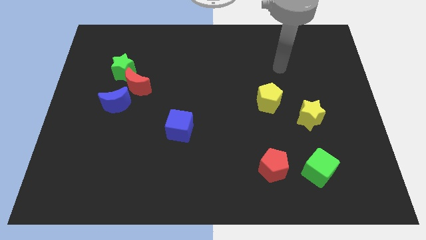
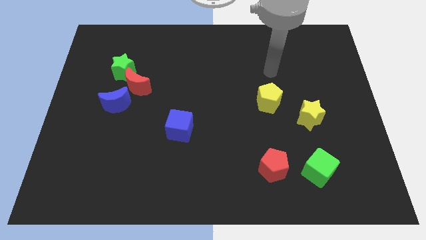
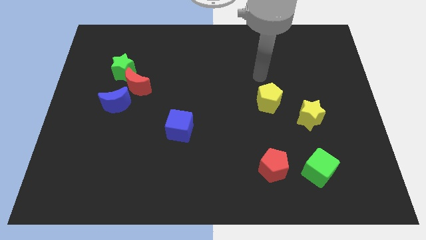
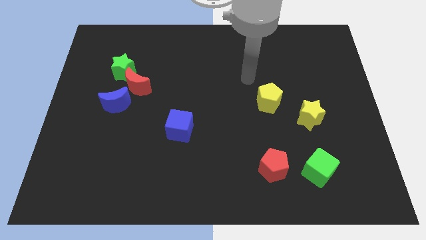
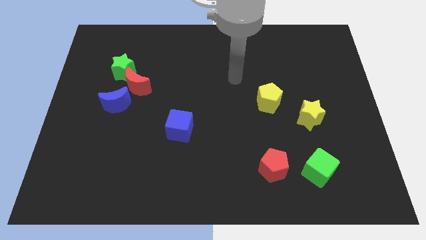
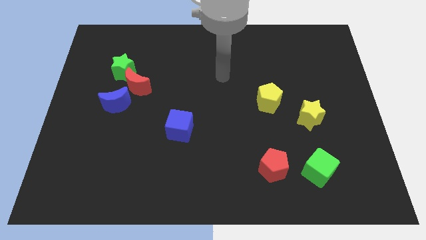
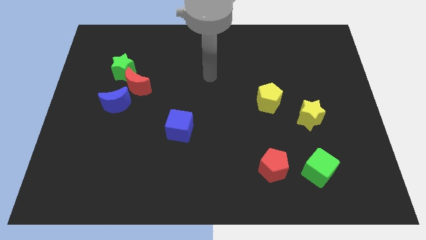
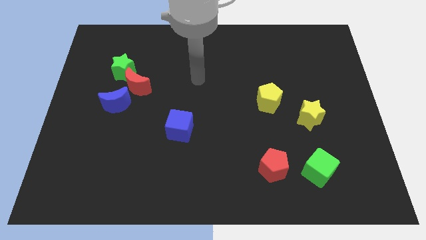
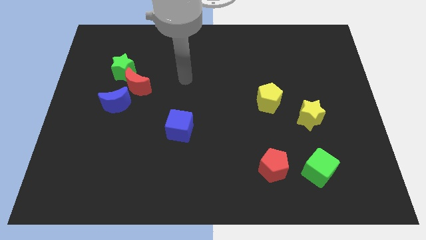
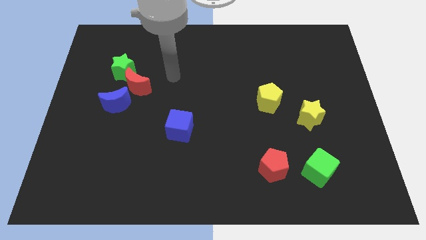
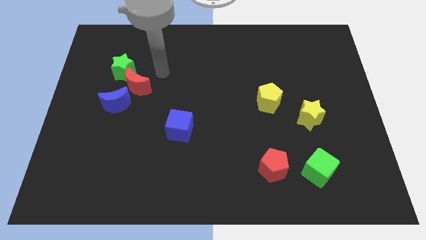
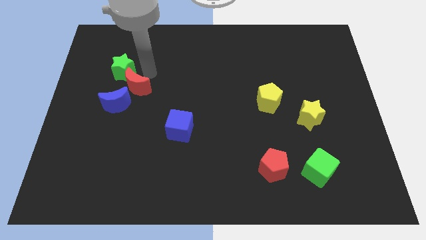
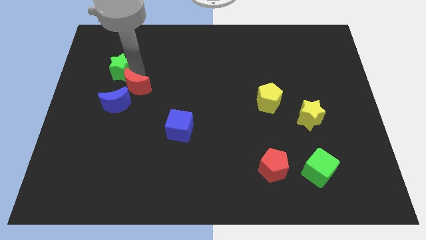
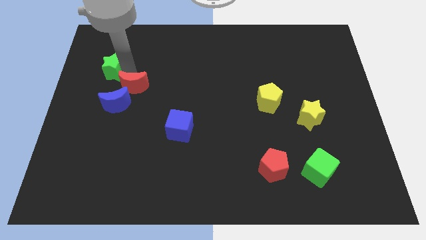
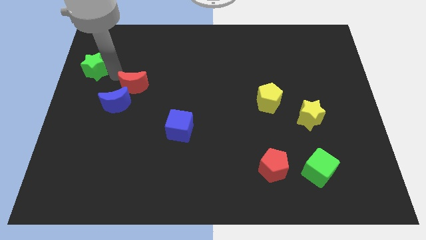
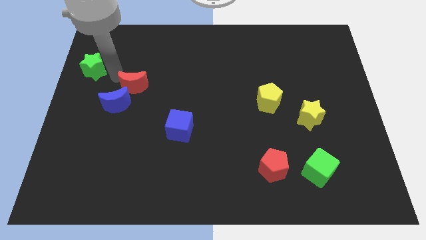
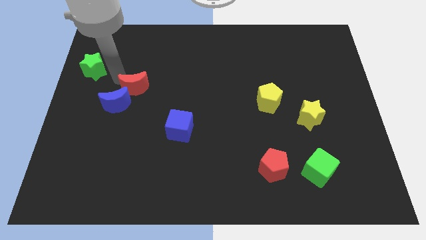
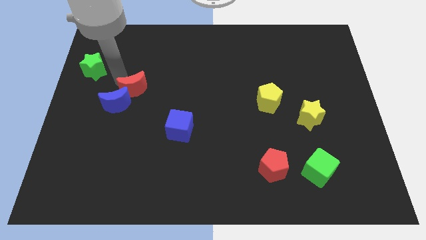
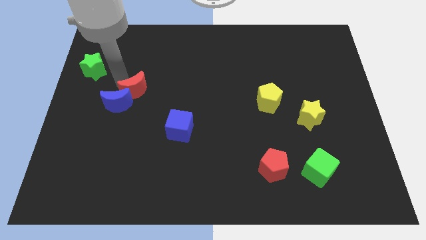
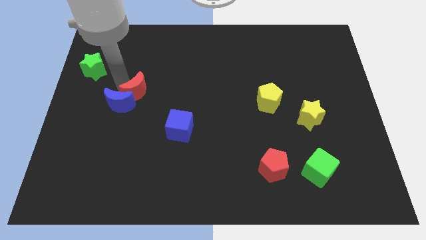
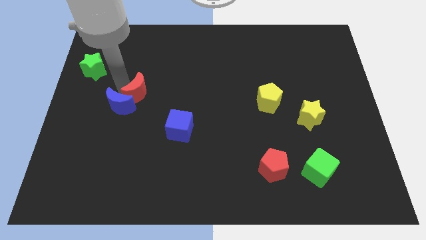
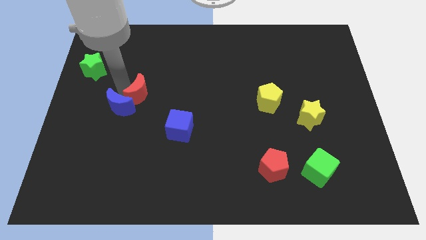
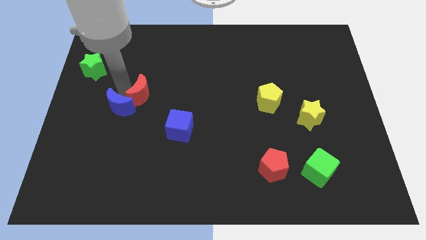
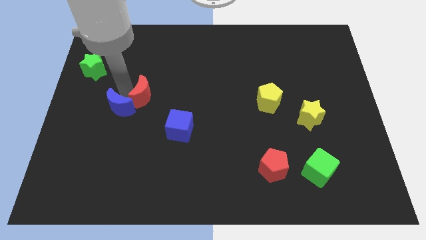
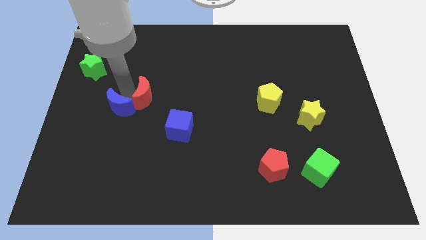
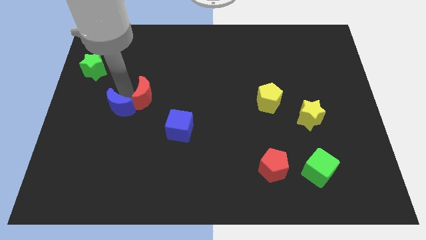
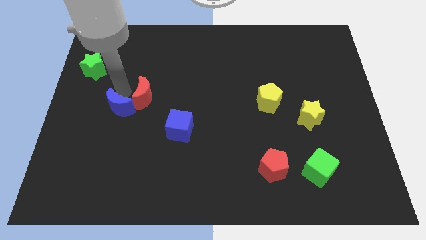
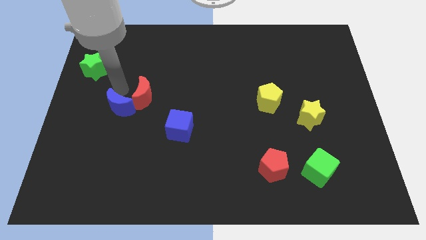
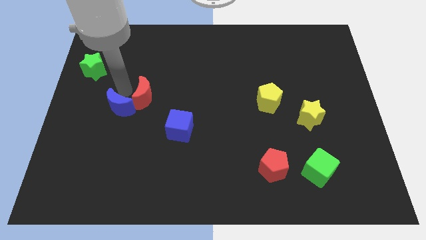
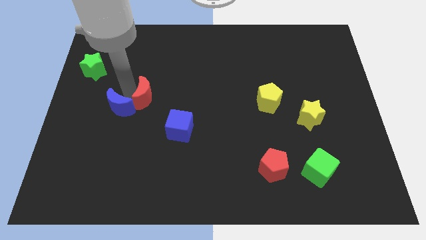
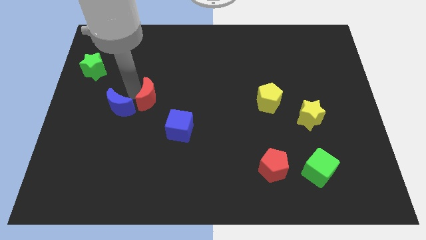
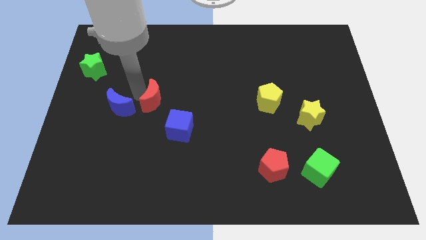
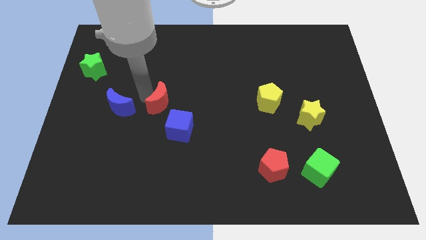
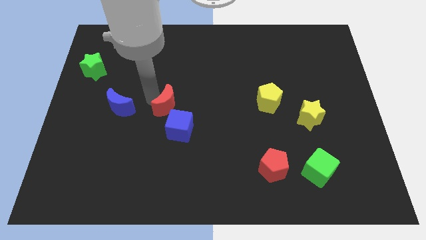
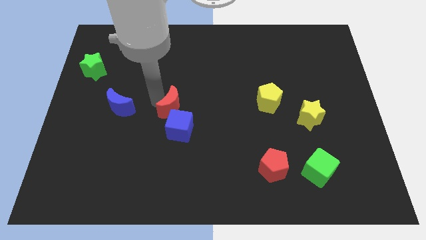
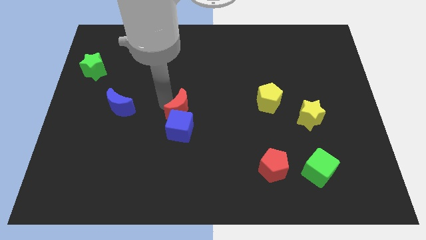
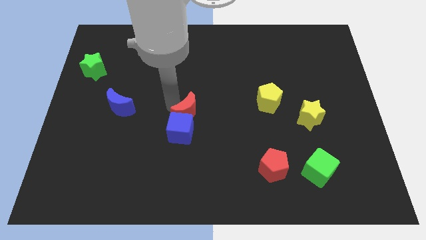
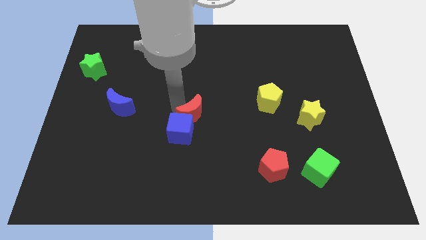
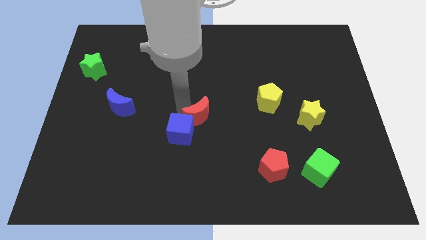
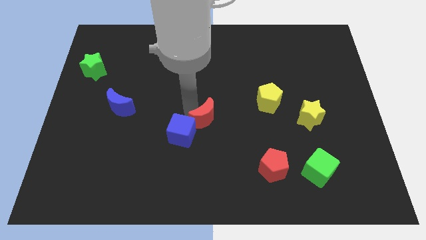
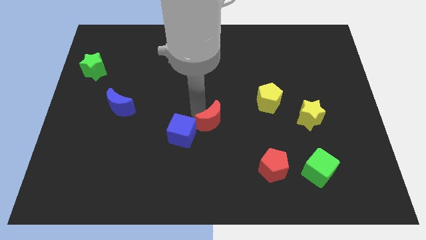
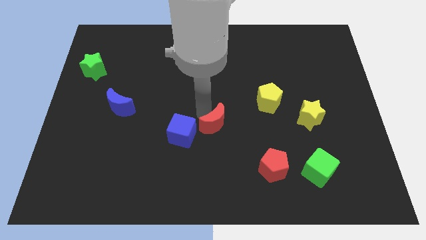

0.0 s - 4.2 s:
move the red moon downwards and to the right diagonally

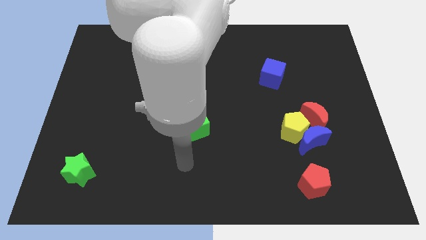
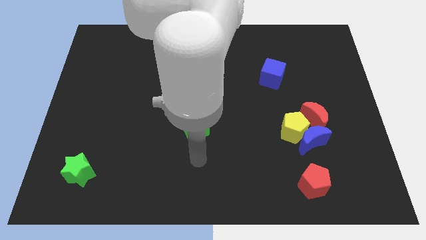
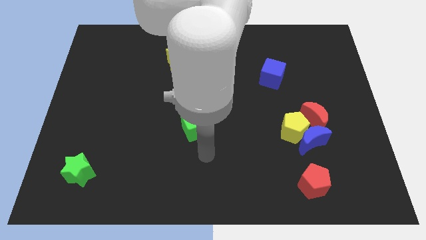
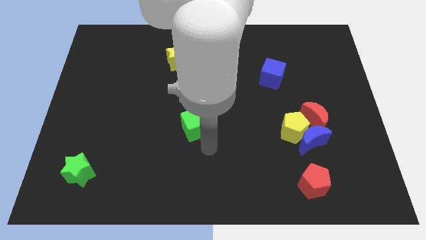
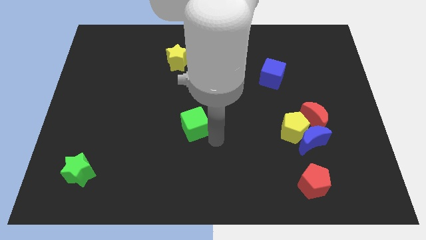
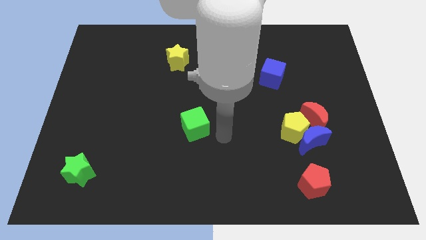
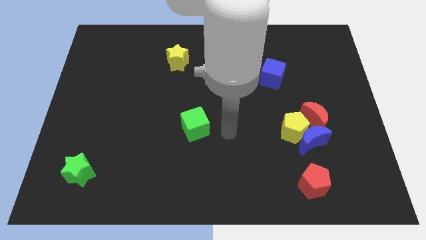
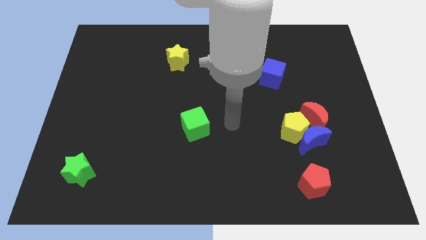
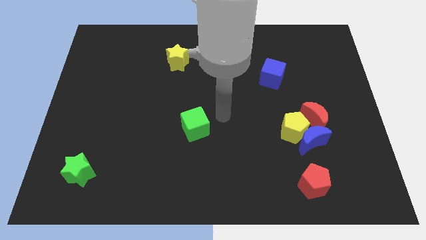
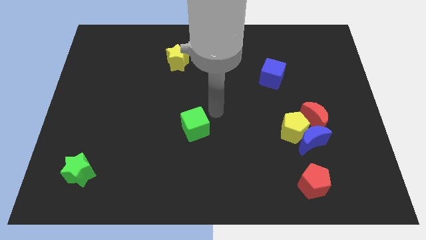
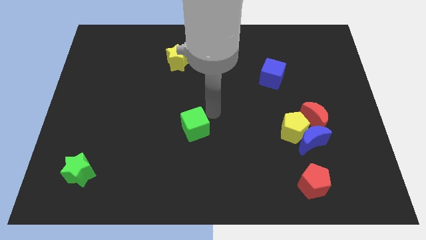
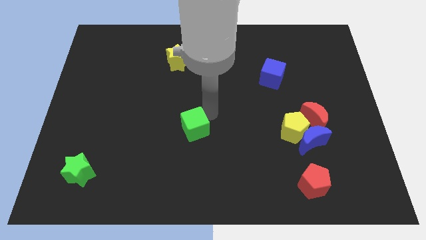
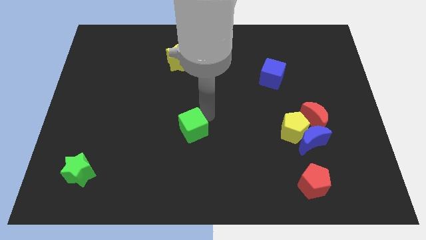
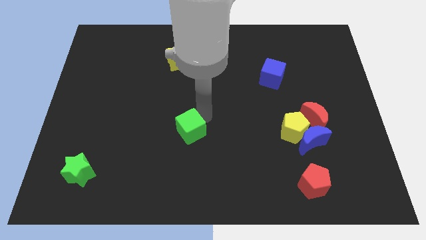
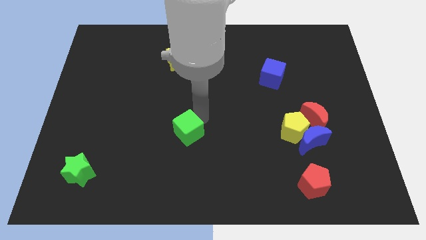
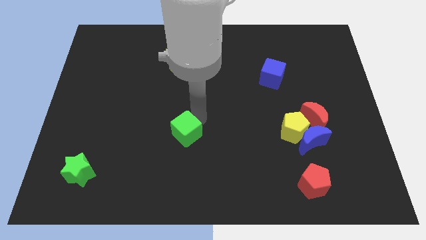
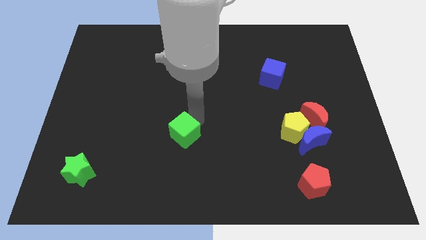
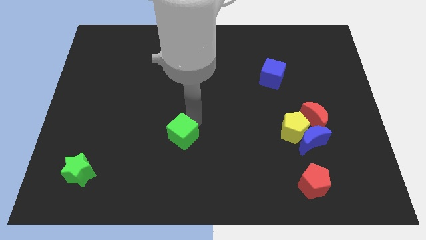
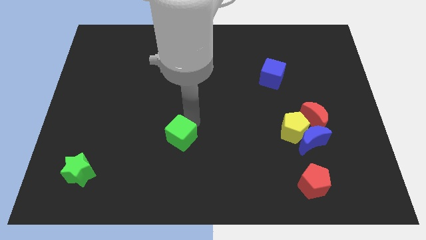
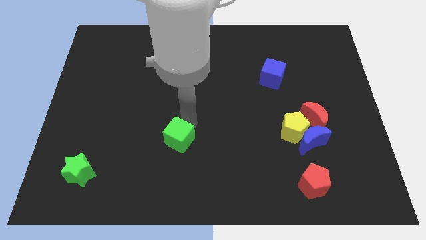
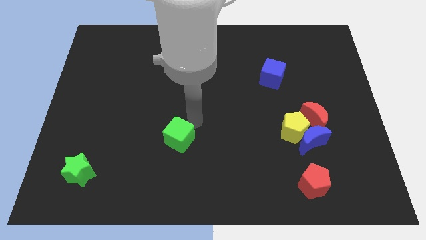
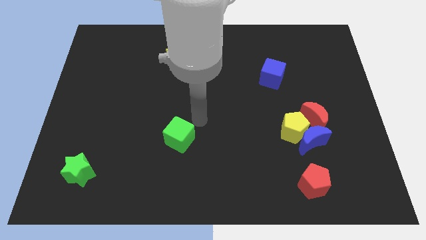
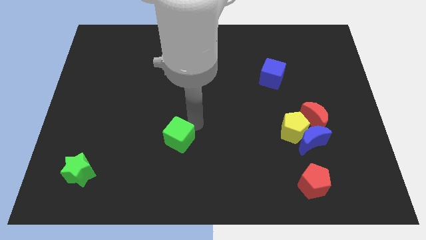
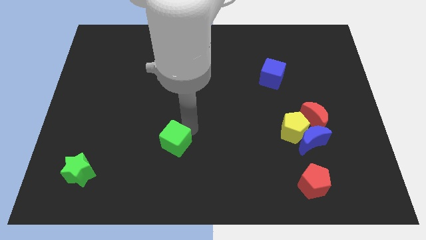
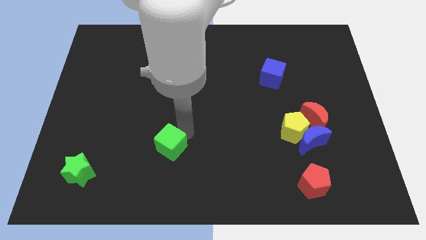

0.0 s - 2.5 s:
slightly push the green cube downwards and then to the left

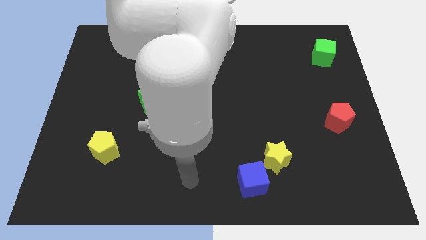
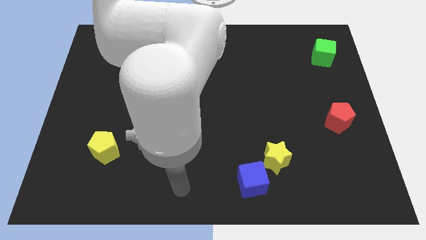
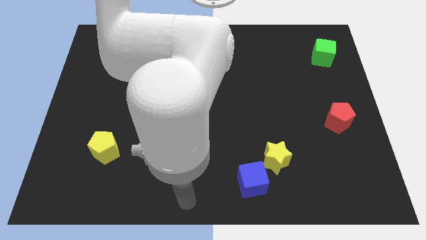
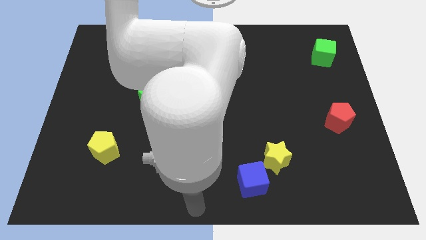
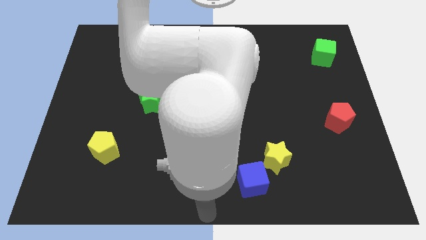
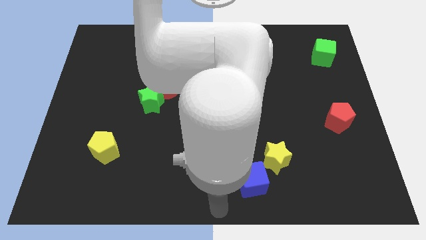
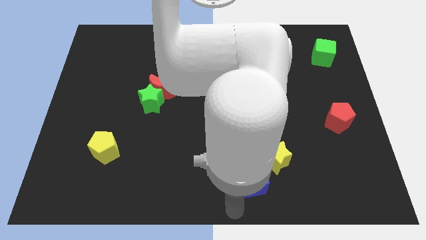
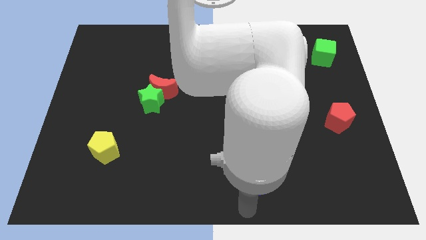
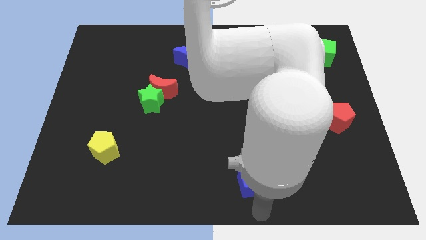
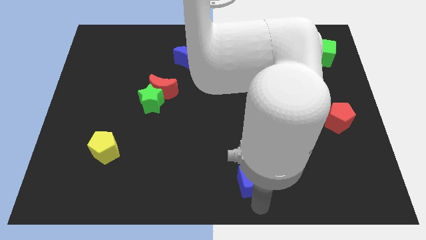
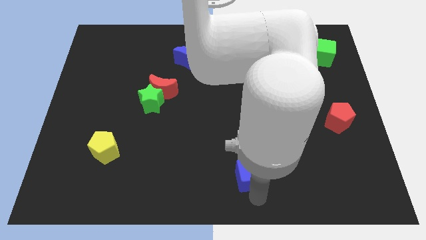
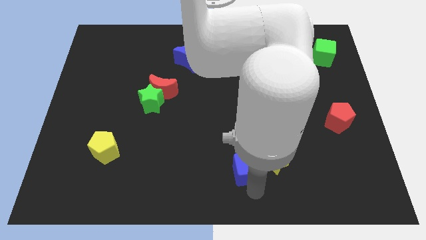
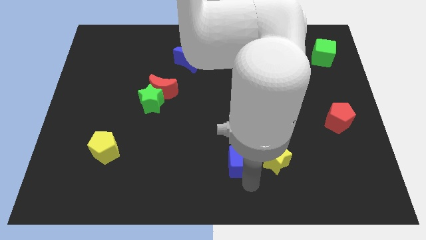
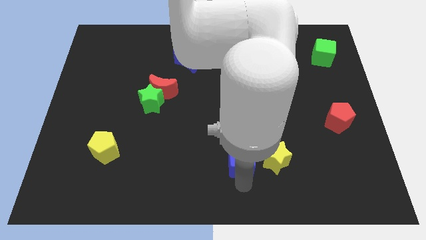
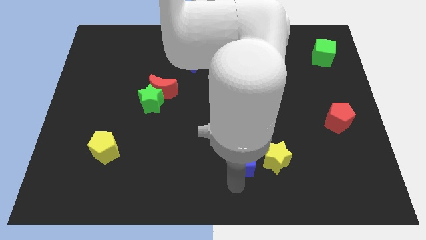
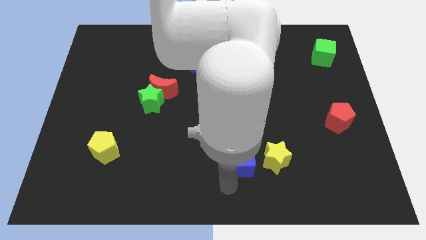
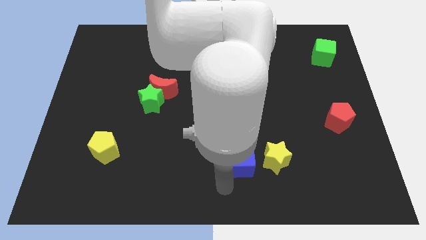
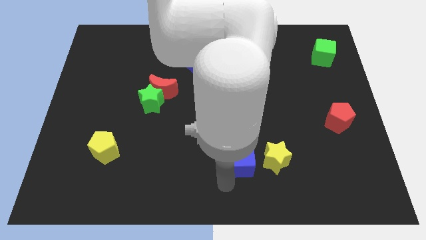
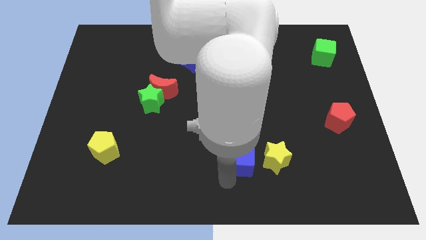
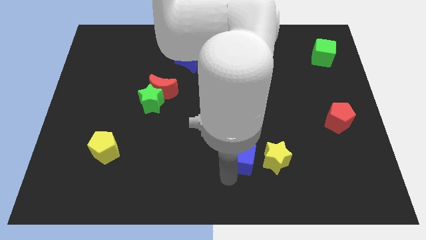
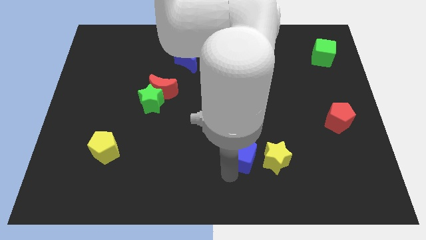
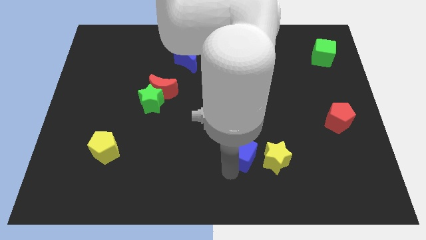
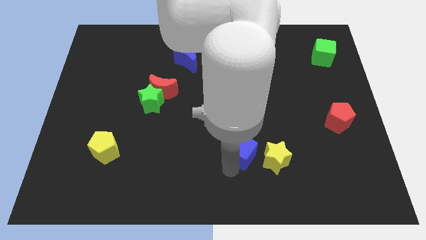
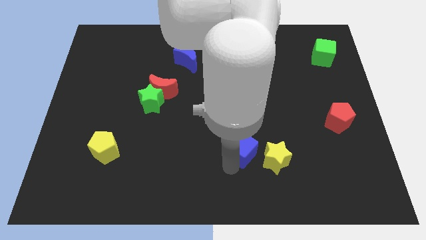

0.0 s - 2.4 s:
slide the blue cube up slightly
